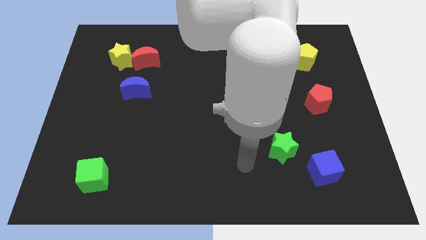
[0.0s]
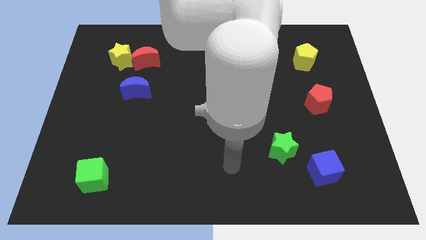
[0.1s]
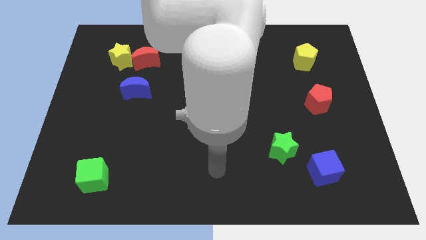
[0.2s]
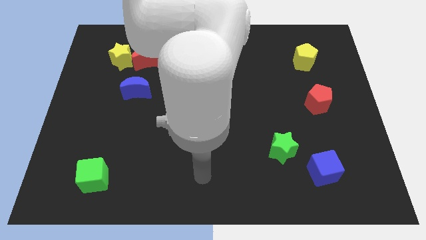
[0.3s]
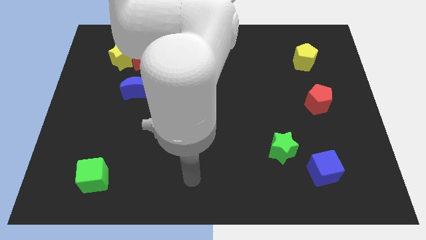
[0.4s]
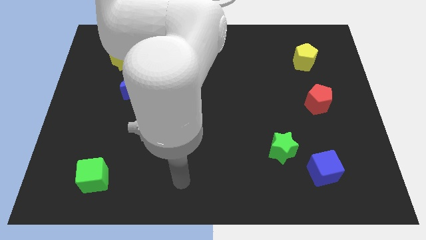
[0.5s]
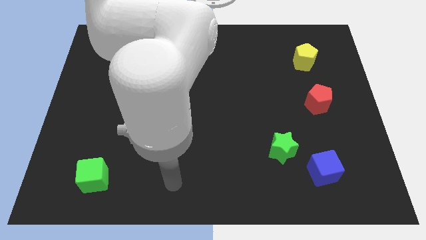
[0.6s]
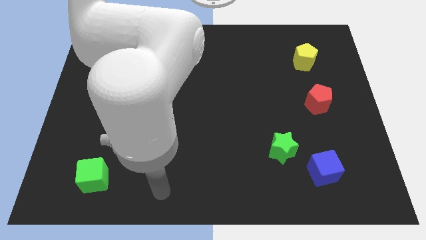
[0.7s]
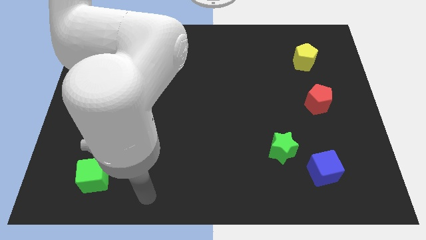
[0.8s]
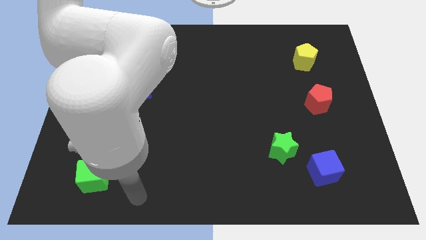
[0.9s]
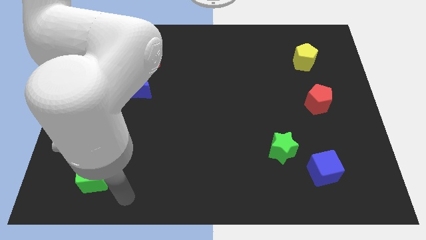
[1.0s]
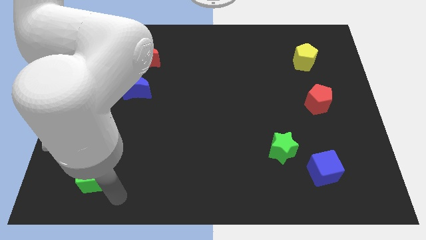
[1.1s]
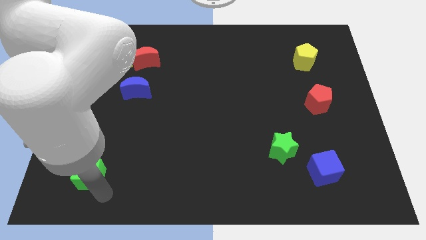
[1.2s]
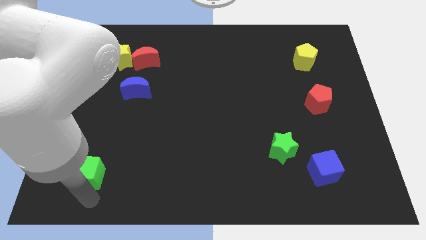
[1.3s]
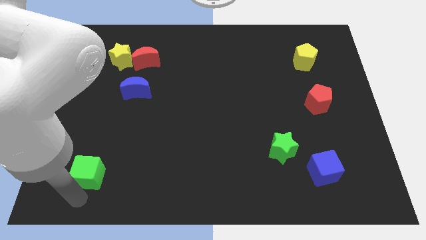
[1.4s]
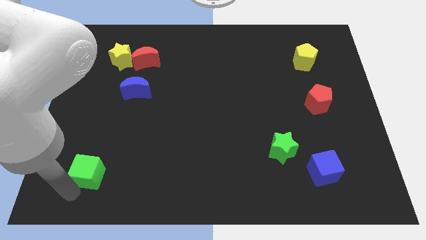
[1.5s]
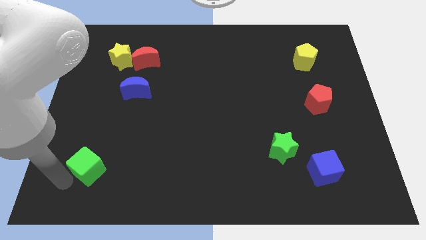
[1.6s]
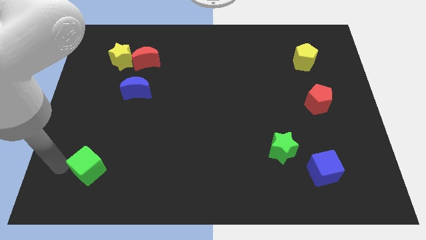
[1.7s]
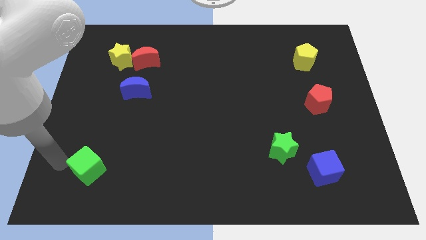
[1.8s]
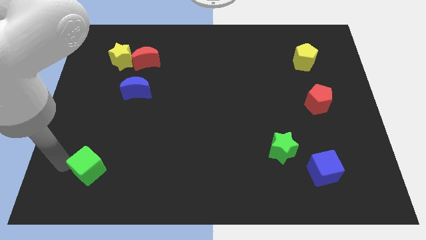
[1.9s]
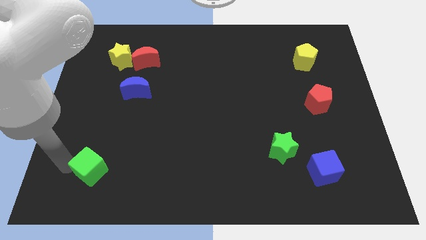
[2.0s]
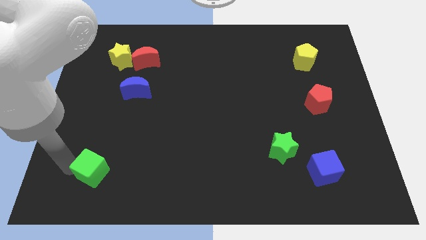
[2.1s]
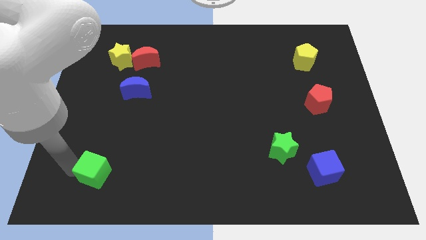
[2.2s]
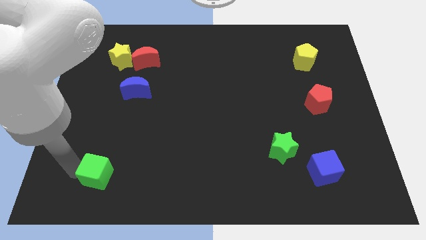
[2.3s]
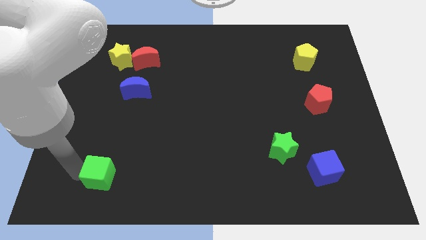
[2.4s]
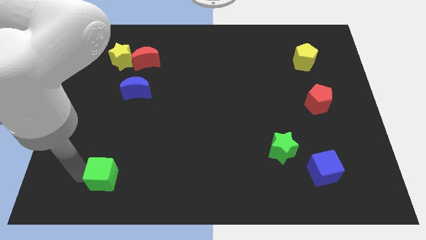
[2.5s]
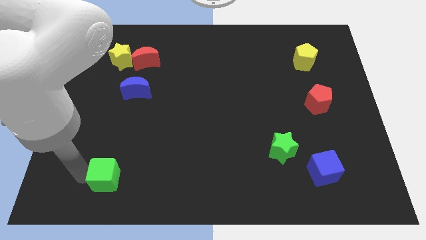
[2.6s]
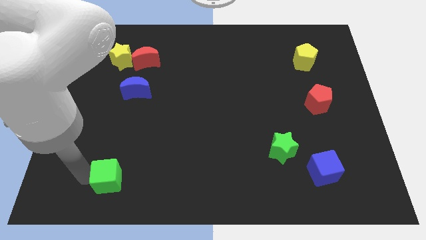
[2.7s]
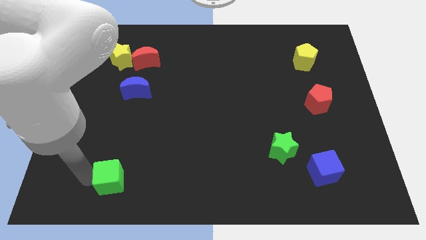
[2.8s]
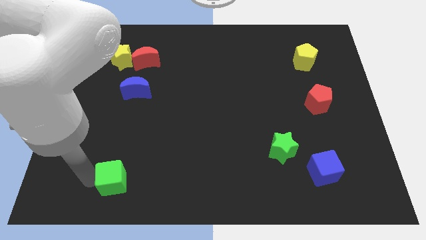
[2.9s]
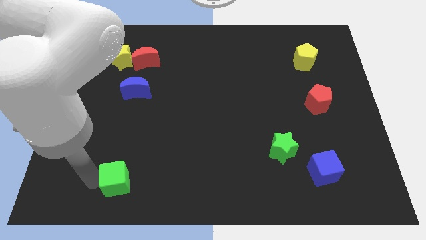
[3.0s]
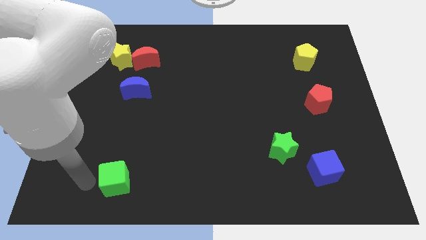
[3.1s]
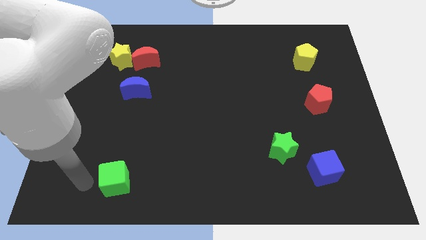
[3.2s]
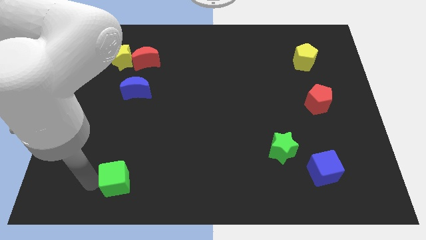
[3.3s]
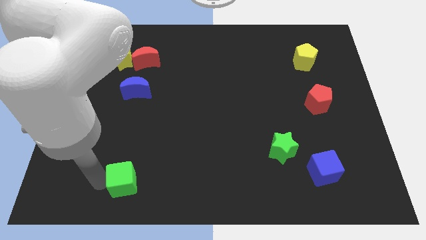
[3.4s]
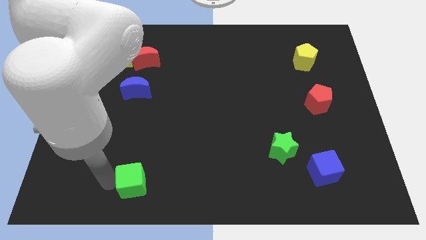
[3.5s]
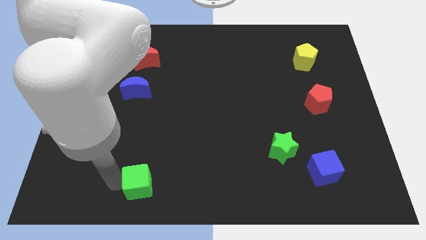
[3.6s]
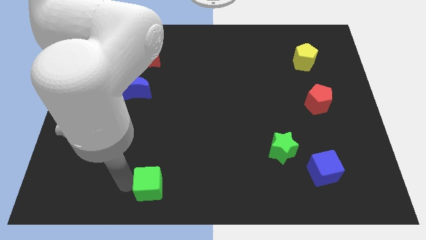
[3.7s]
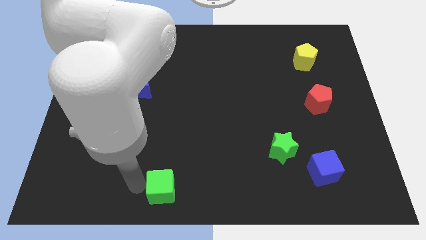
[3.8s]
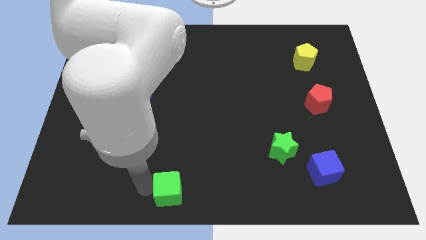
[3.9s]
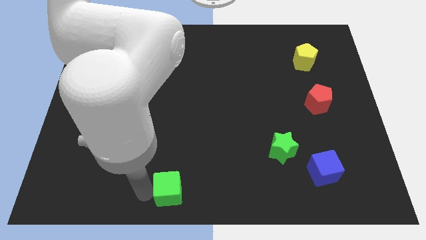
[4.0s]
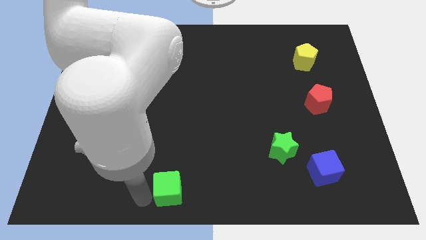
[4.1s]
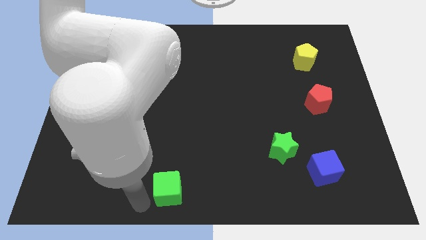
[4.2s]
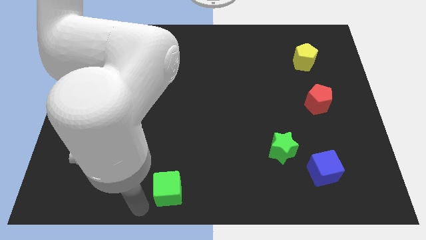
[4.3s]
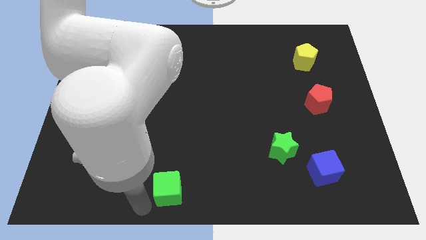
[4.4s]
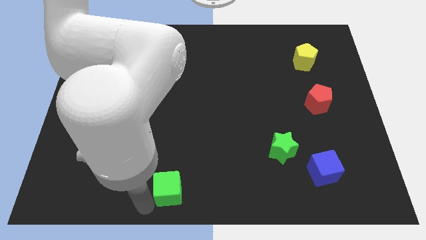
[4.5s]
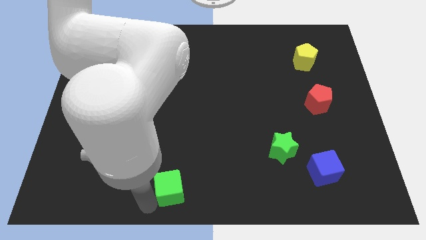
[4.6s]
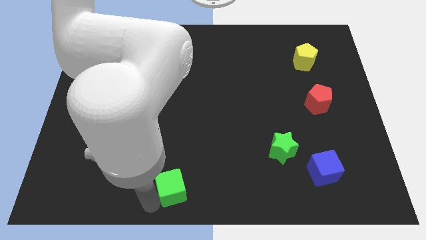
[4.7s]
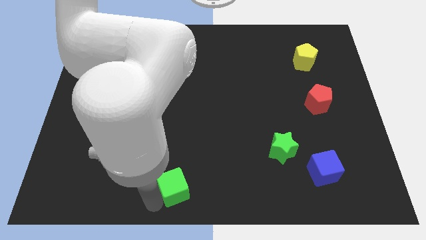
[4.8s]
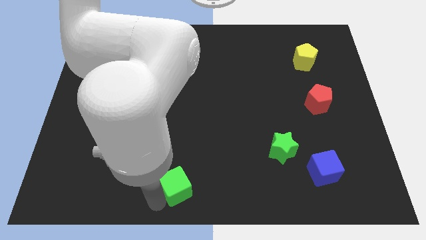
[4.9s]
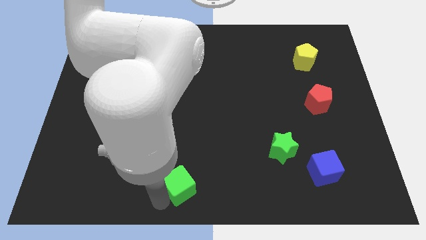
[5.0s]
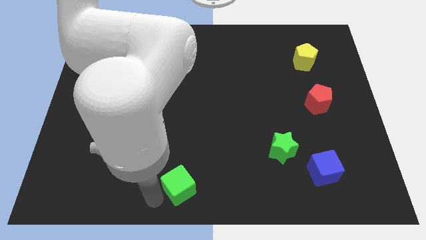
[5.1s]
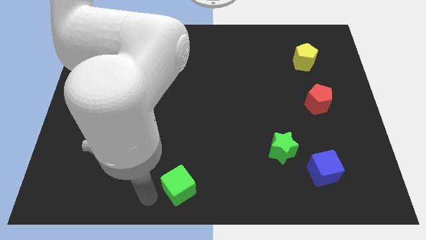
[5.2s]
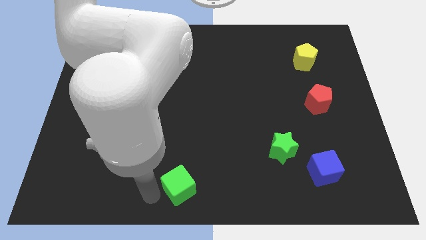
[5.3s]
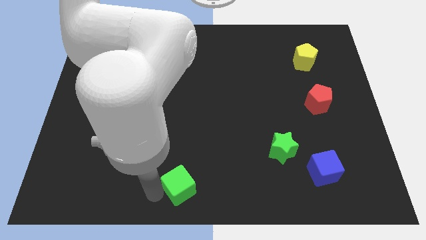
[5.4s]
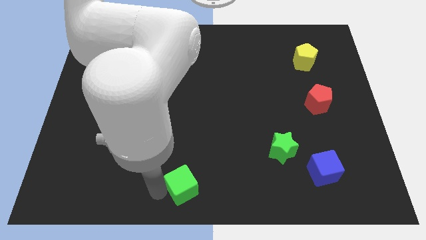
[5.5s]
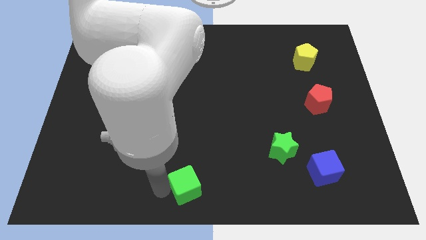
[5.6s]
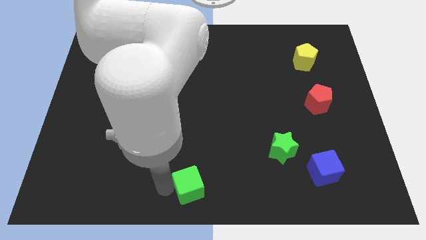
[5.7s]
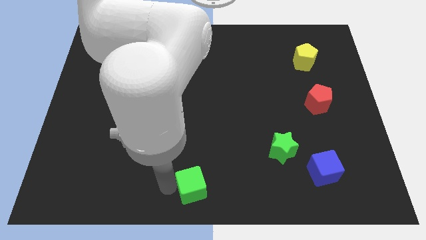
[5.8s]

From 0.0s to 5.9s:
push the green cube right

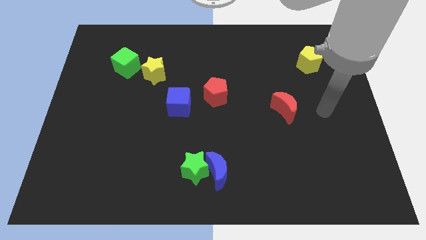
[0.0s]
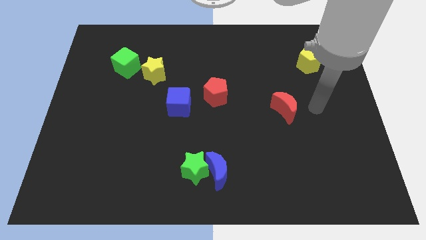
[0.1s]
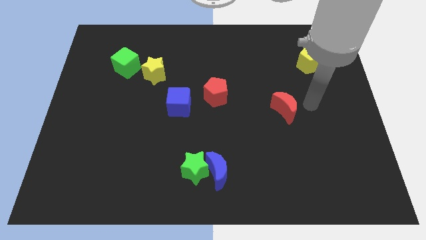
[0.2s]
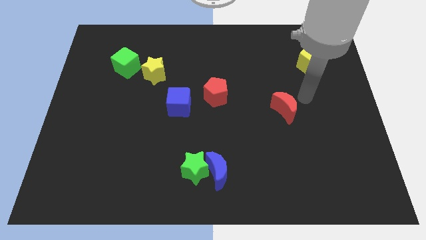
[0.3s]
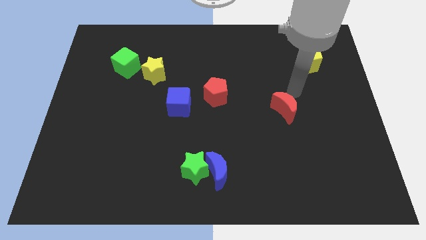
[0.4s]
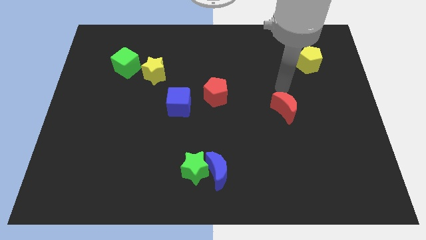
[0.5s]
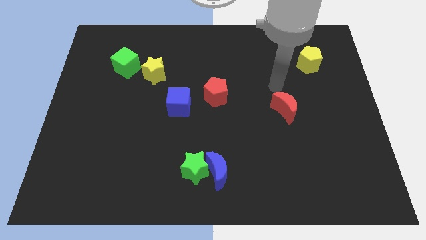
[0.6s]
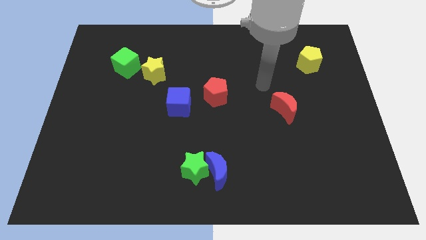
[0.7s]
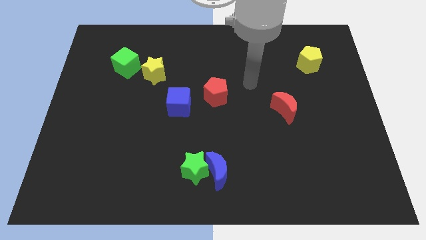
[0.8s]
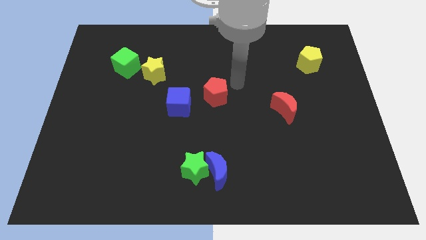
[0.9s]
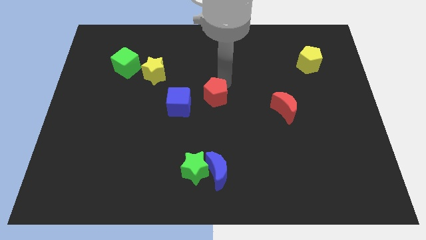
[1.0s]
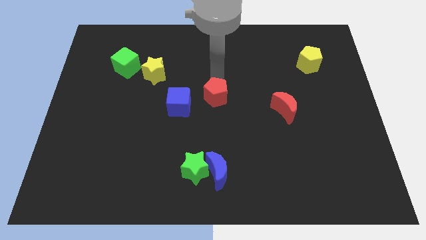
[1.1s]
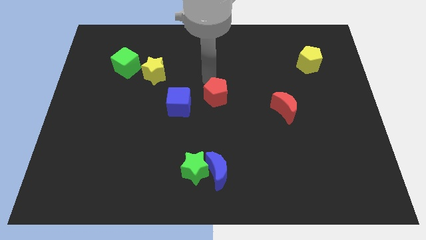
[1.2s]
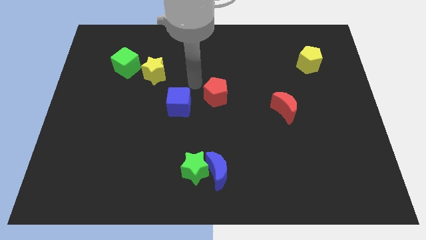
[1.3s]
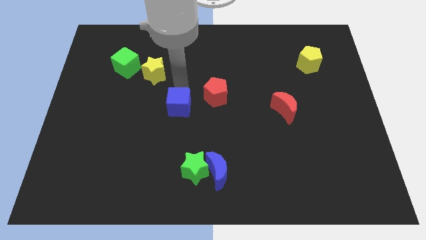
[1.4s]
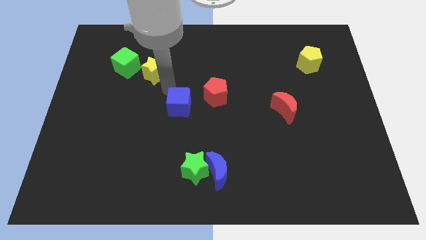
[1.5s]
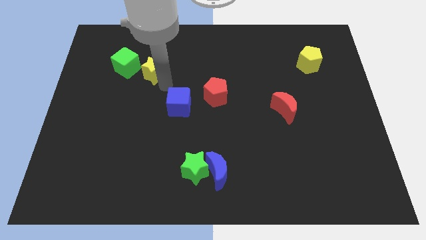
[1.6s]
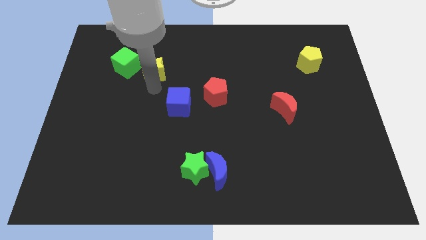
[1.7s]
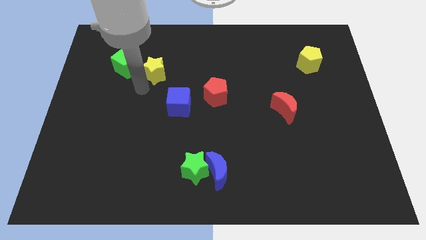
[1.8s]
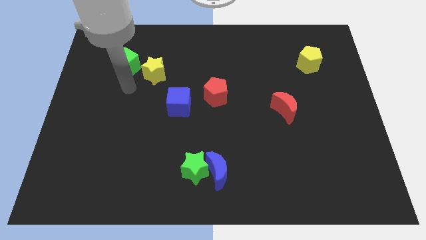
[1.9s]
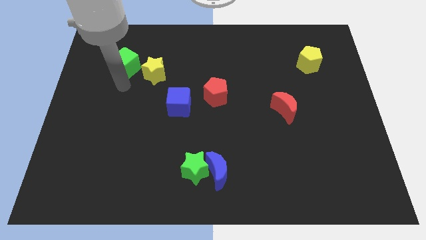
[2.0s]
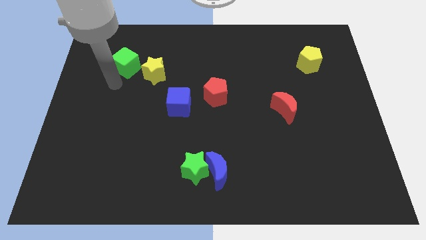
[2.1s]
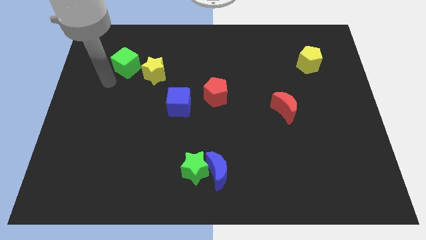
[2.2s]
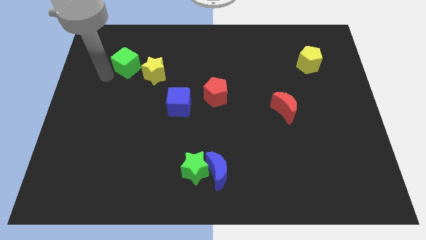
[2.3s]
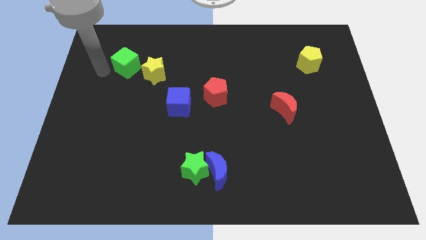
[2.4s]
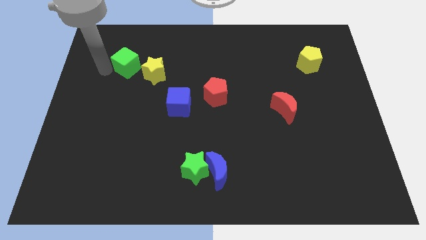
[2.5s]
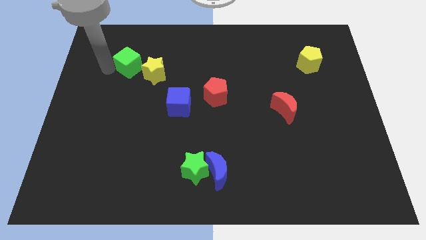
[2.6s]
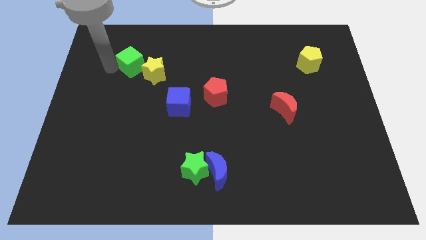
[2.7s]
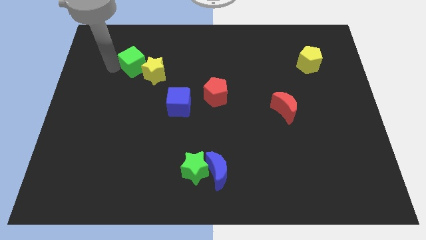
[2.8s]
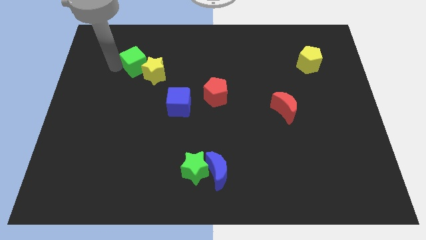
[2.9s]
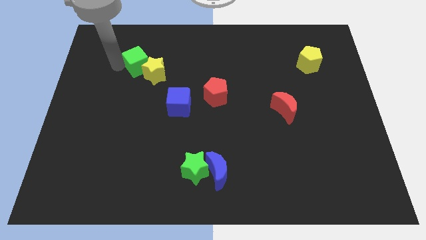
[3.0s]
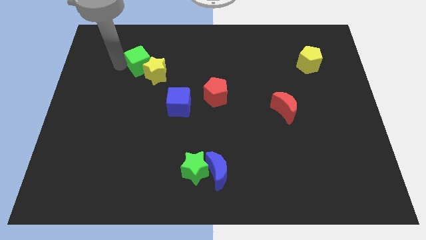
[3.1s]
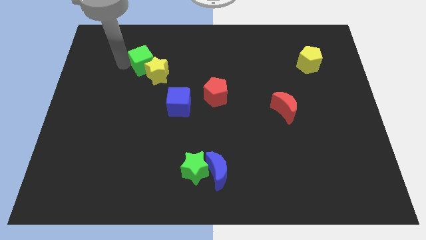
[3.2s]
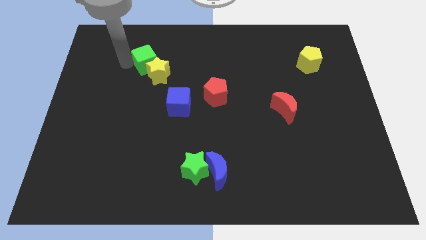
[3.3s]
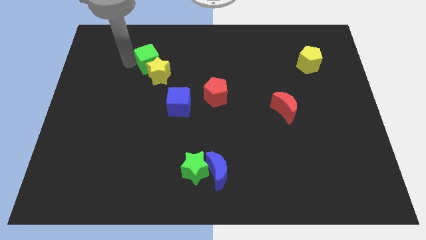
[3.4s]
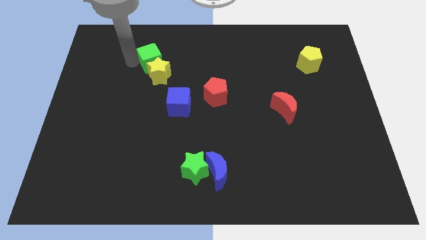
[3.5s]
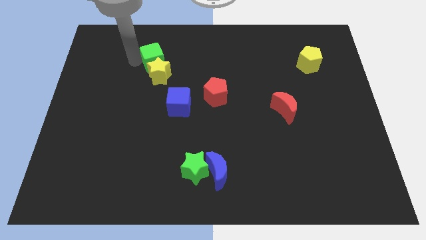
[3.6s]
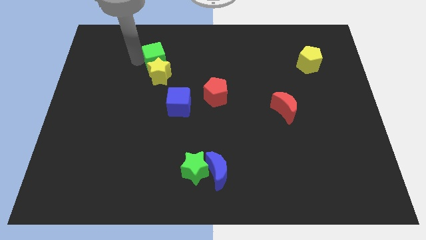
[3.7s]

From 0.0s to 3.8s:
slide the green cube a bit to the right
